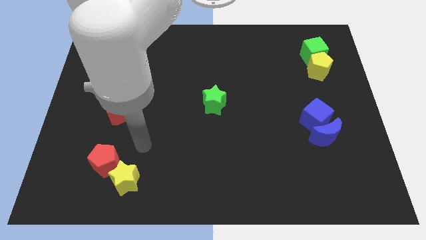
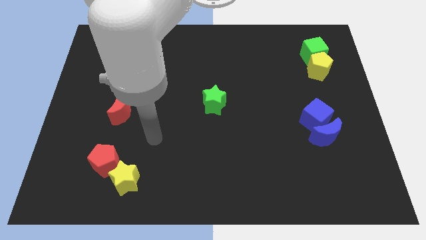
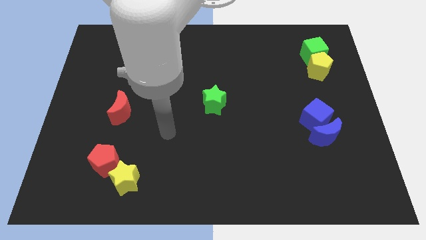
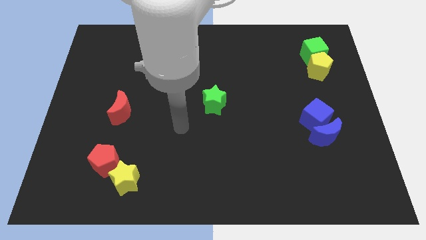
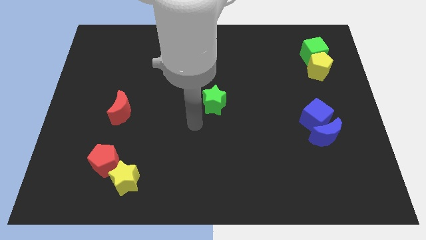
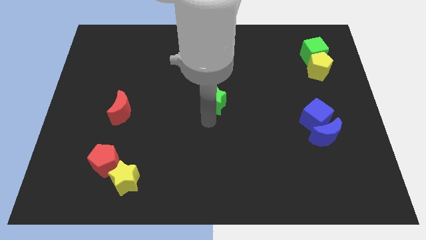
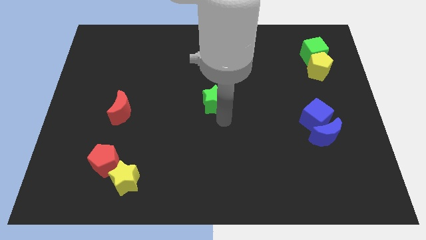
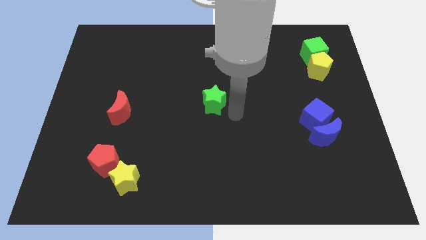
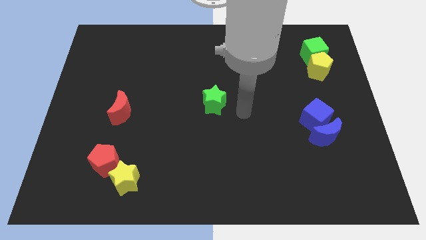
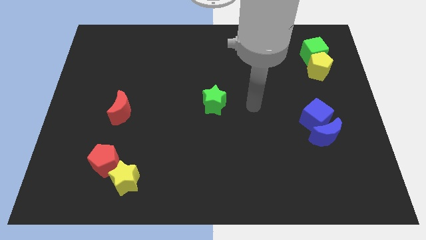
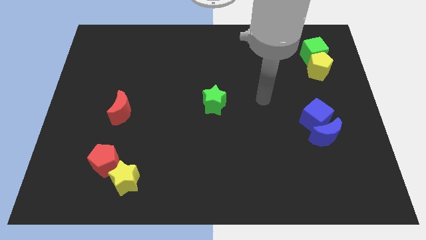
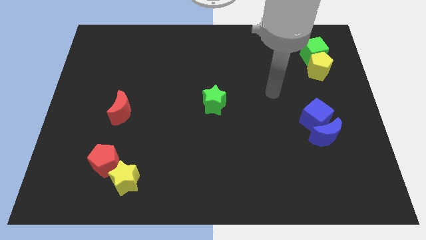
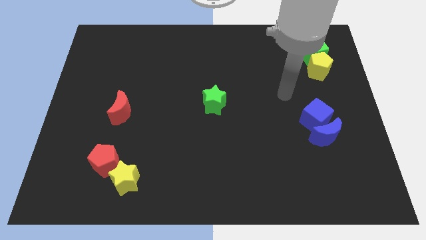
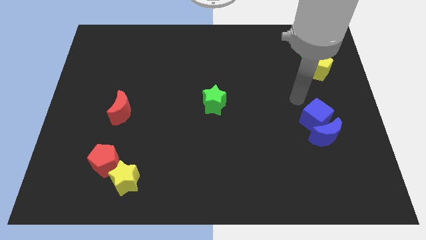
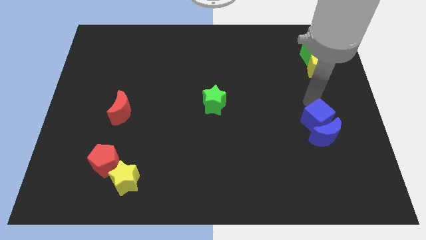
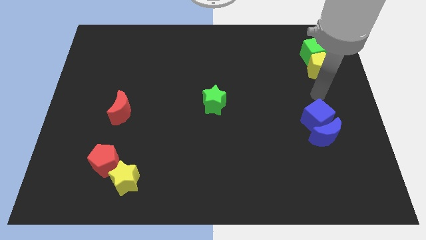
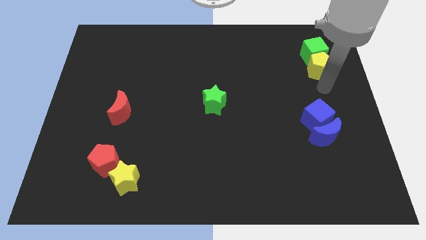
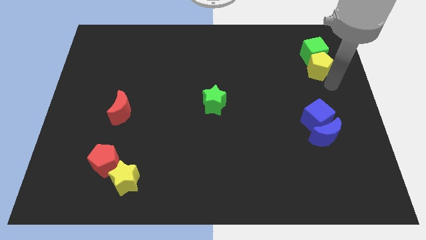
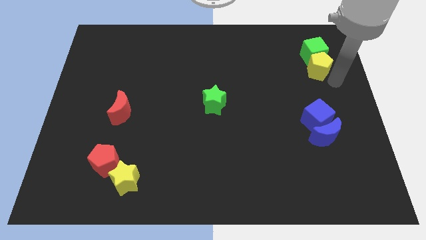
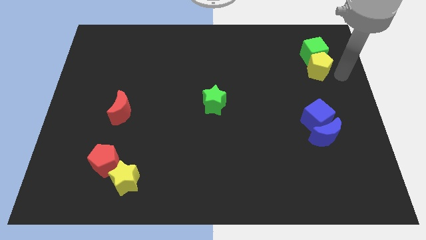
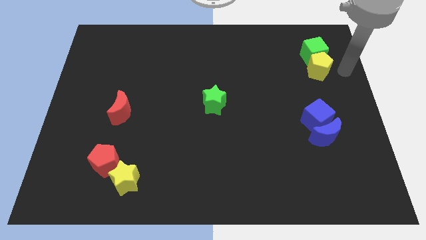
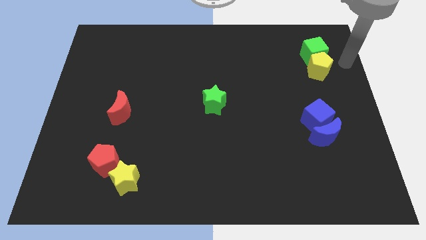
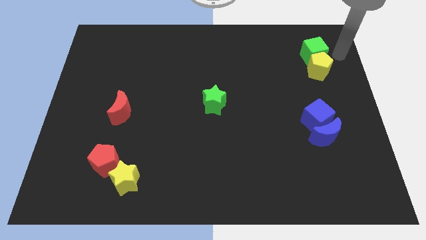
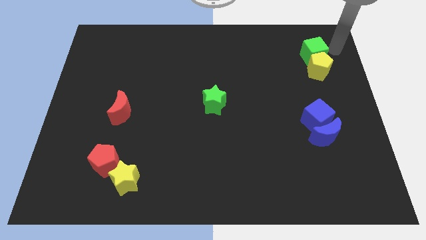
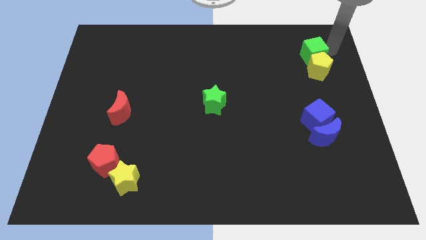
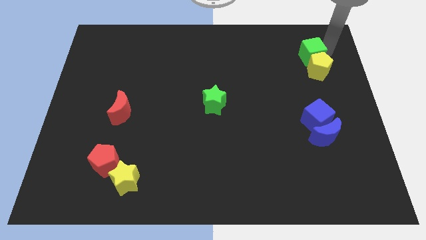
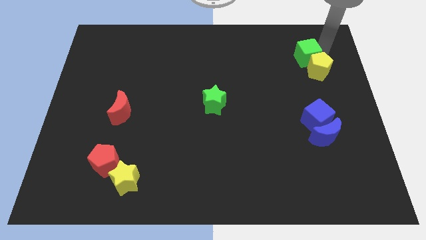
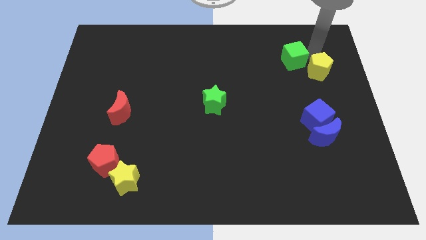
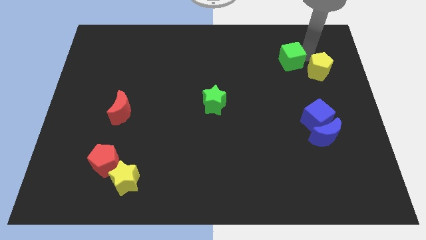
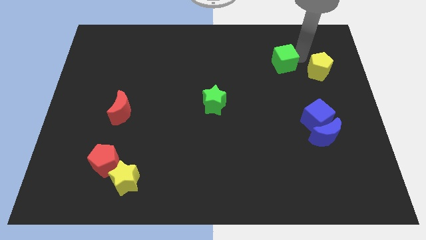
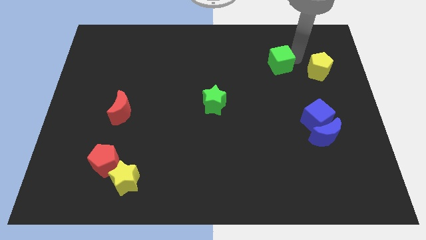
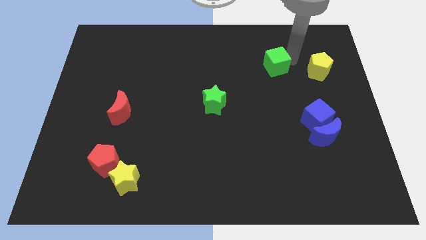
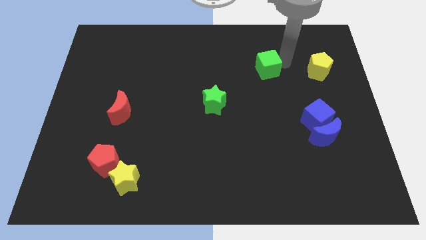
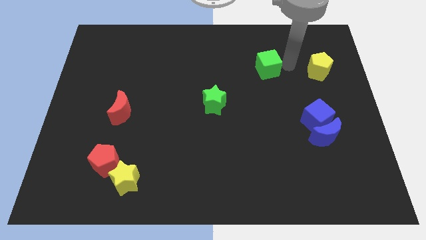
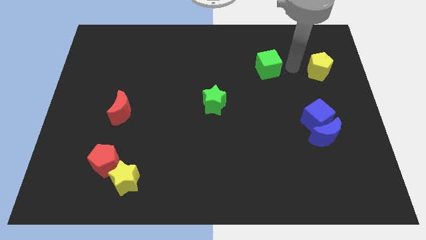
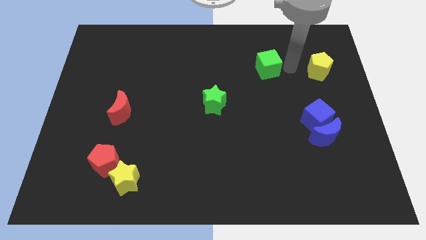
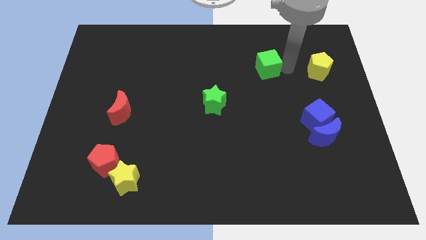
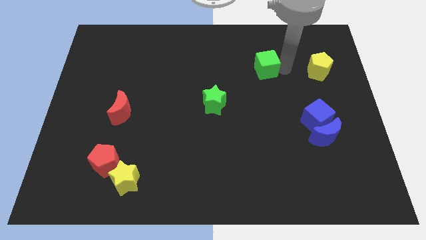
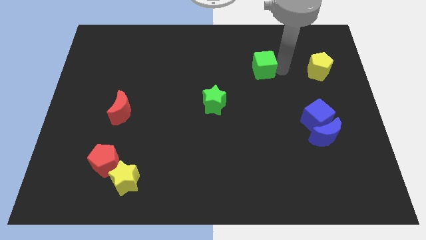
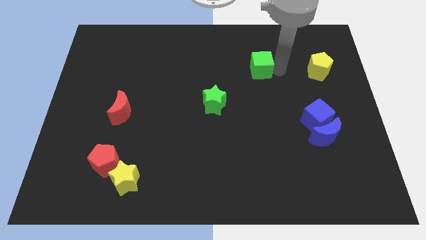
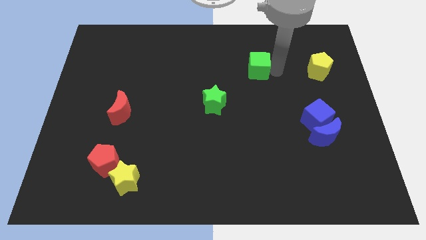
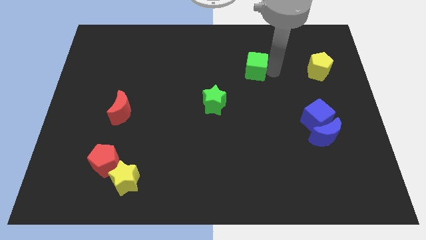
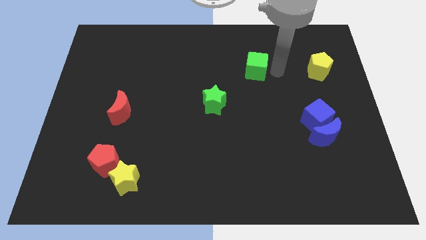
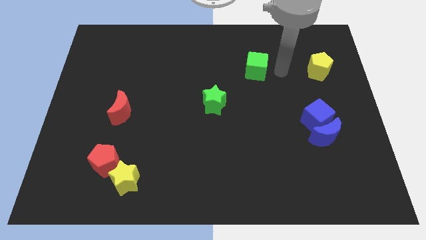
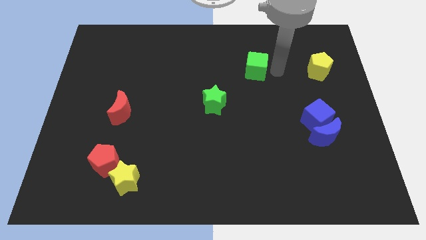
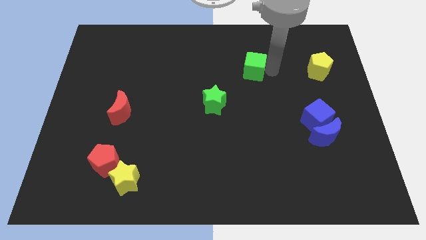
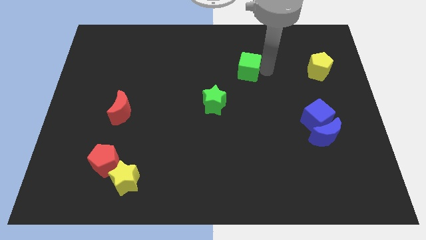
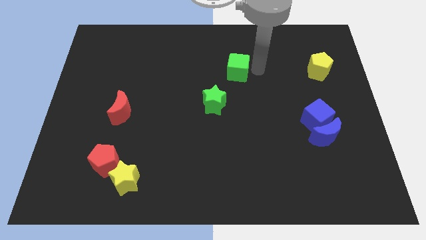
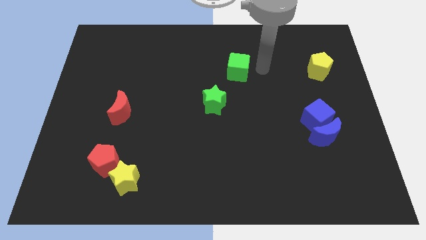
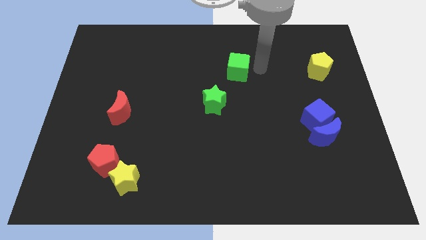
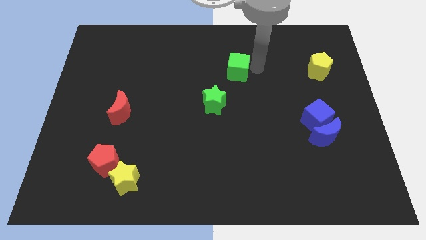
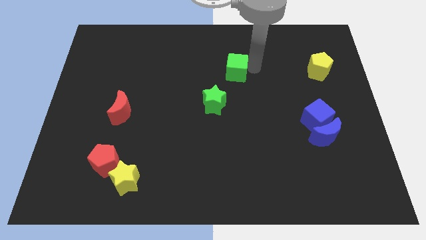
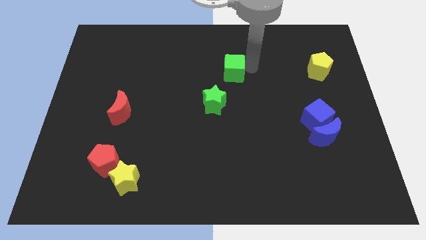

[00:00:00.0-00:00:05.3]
slide the green cube to the top of the green star

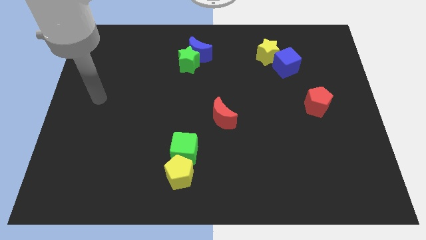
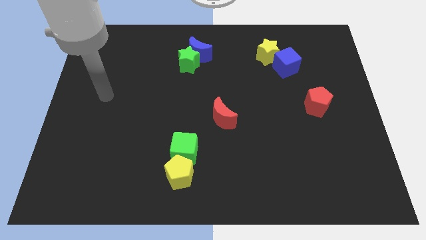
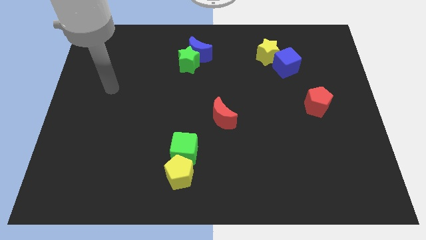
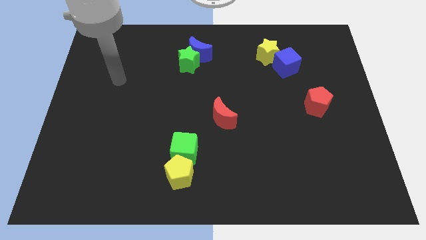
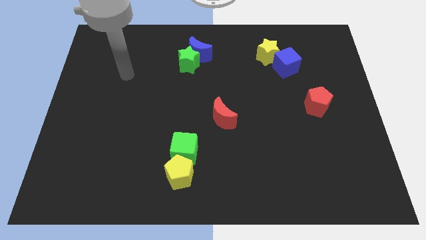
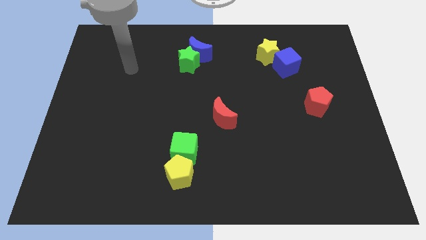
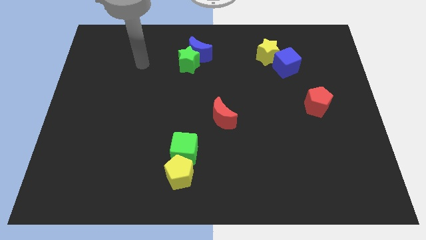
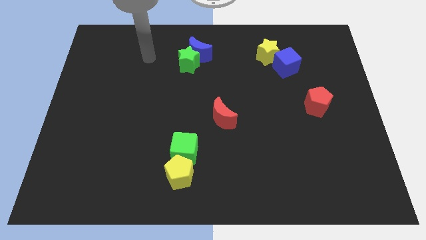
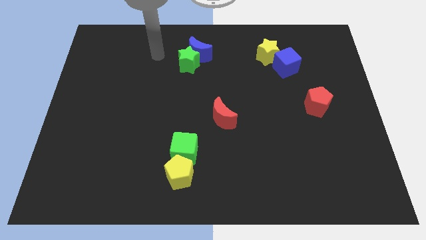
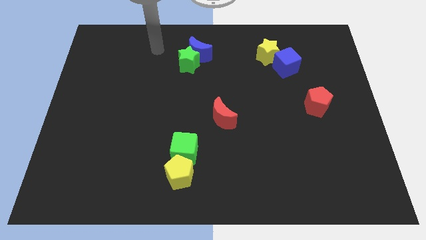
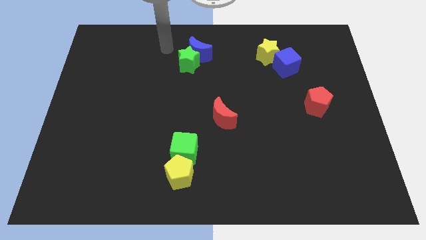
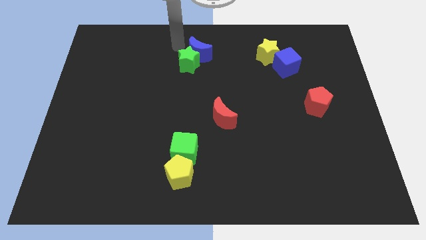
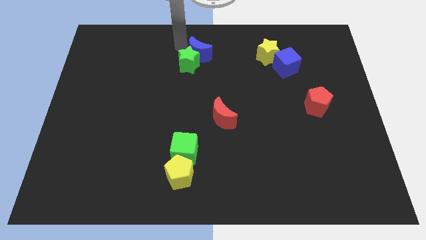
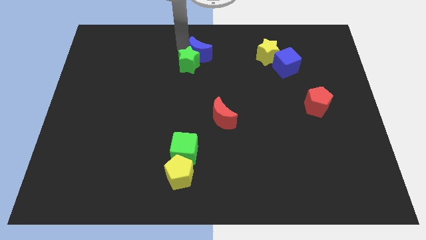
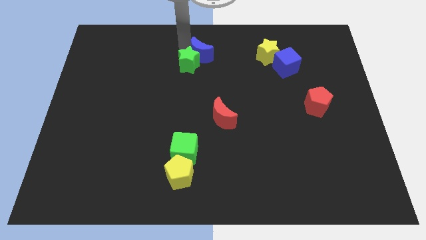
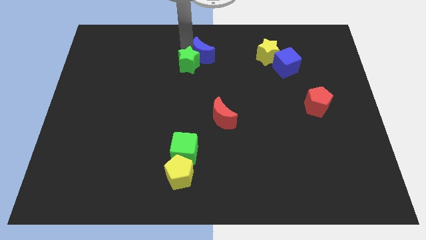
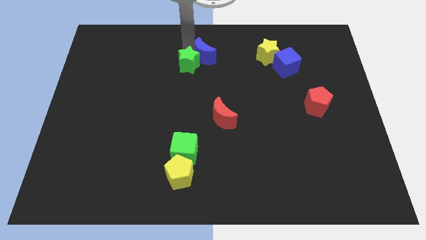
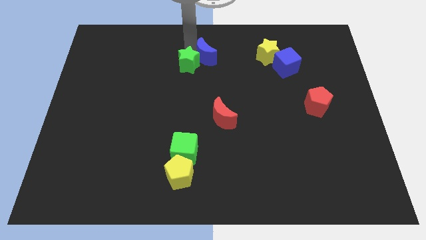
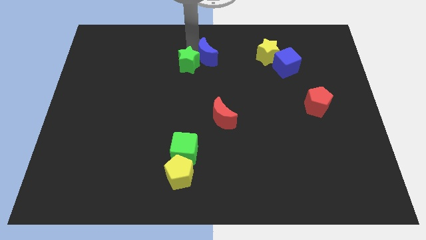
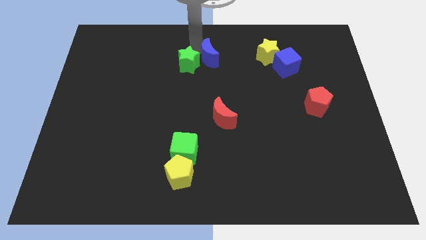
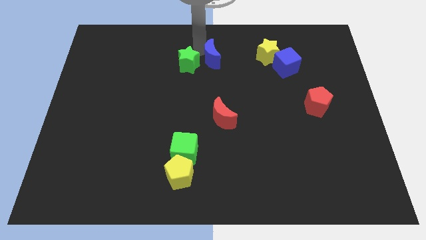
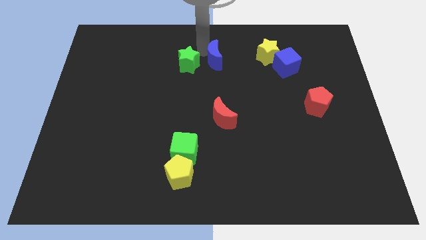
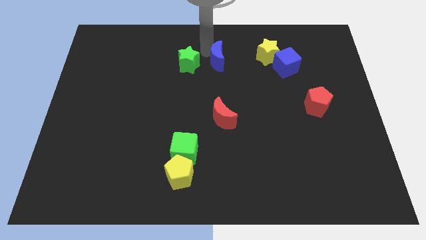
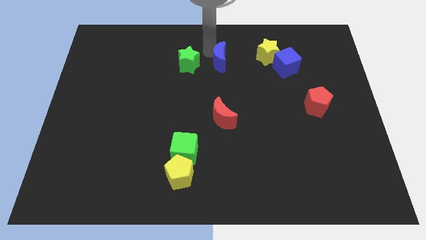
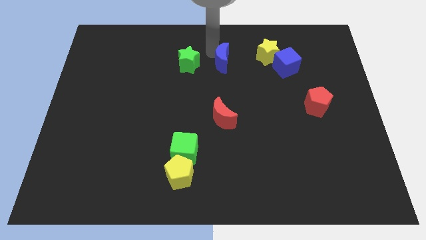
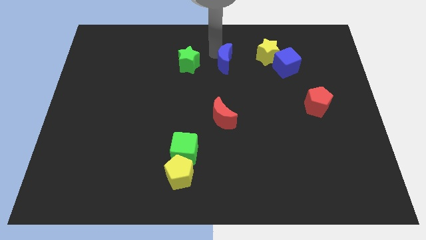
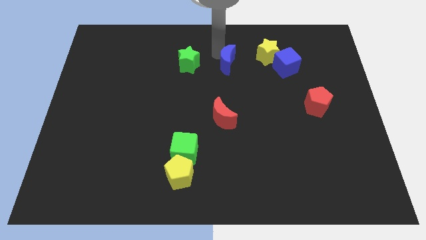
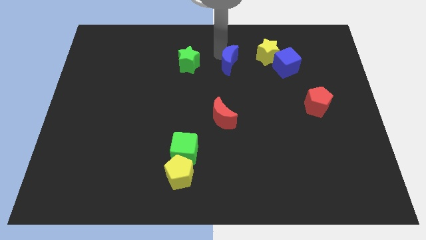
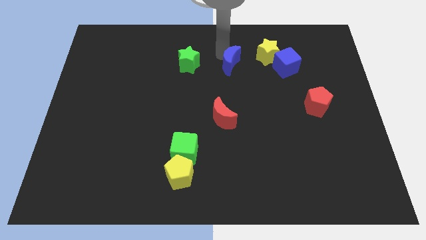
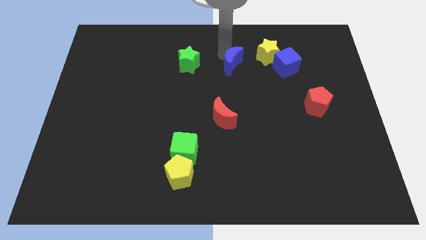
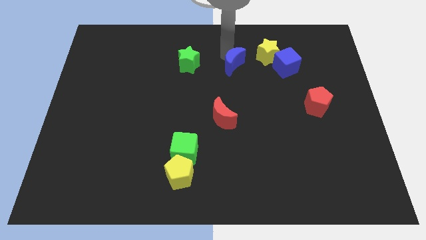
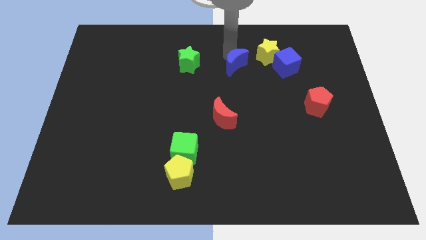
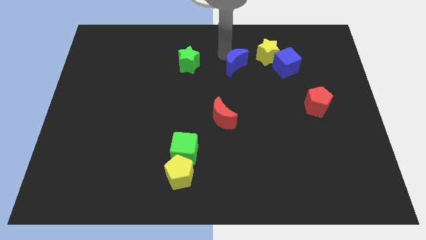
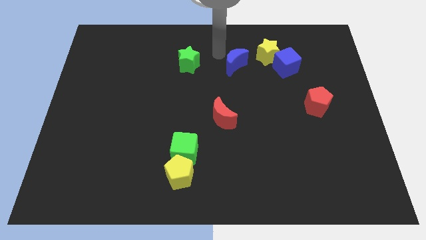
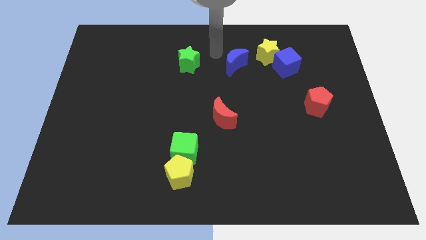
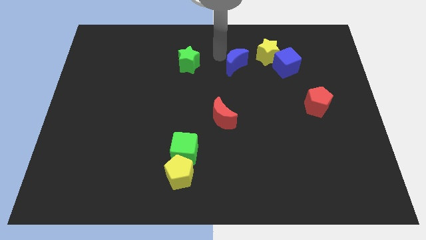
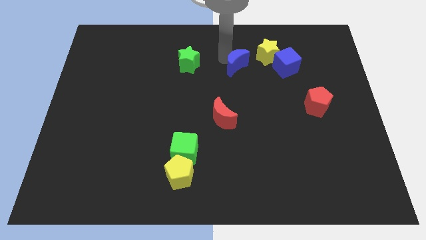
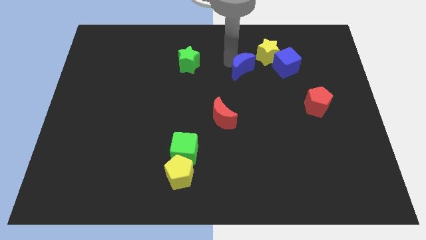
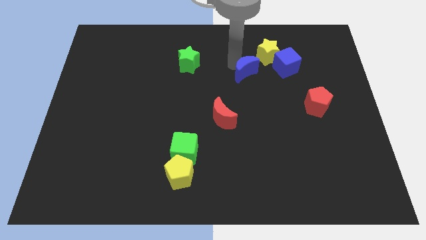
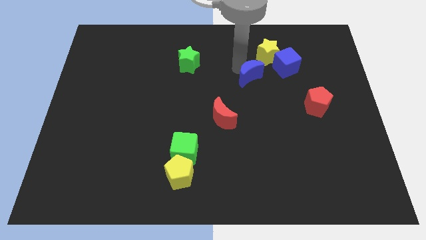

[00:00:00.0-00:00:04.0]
move the blue moon diagonally down and to the left of the blue cube
